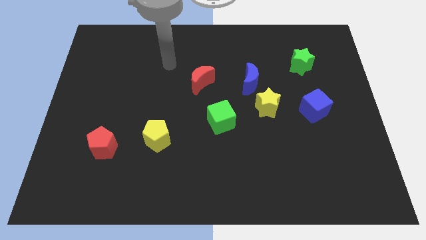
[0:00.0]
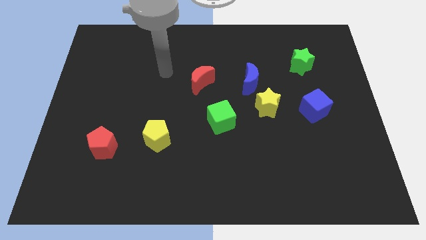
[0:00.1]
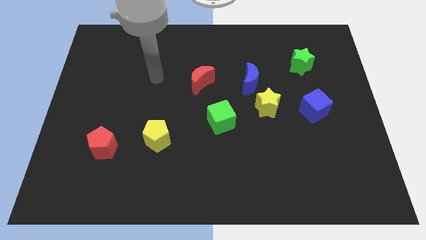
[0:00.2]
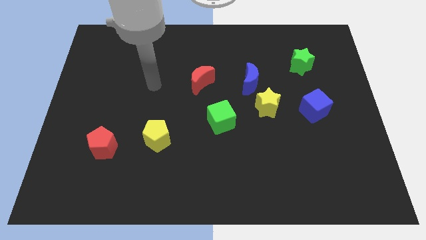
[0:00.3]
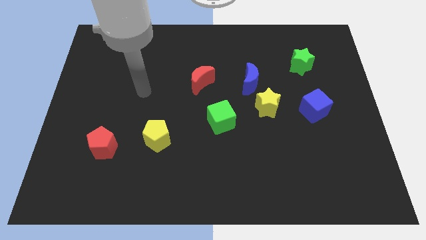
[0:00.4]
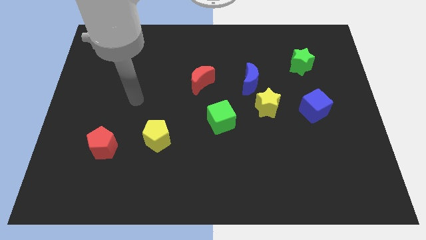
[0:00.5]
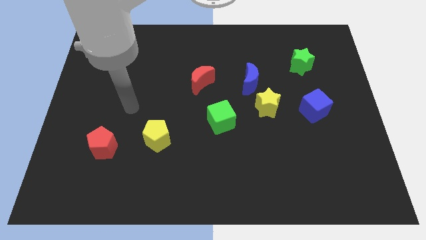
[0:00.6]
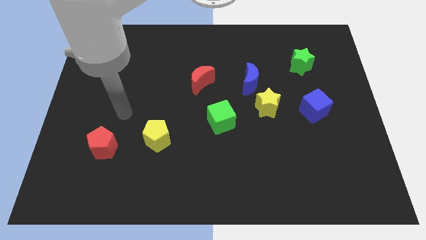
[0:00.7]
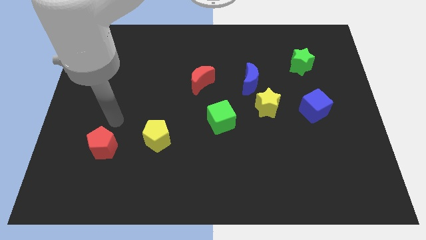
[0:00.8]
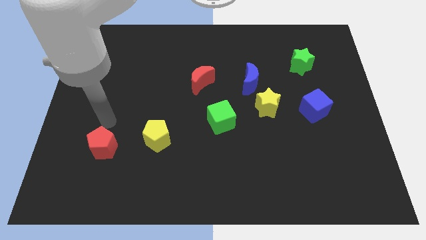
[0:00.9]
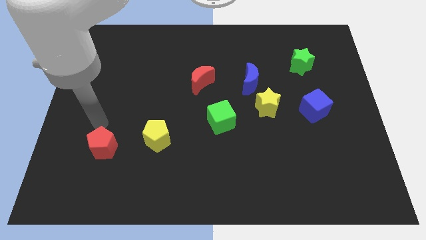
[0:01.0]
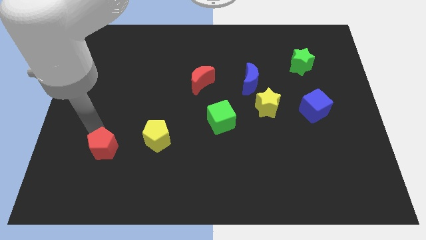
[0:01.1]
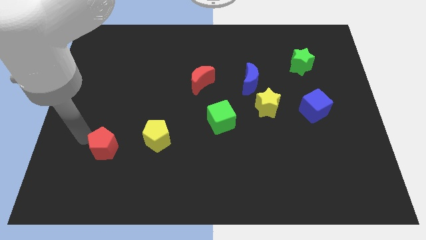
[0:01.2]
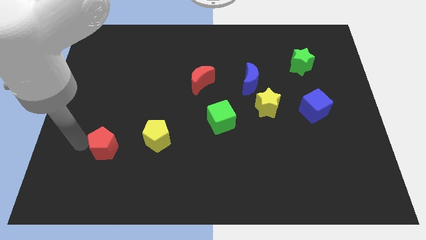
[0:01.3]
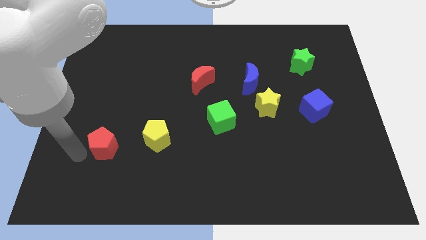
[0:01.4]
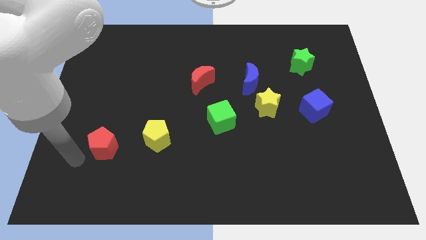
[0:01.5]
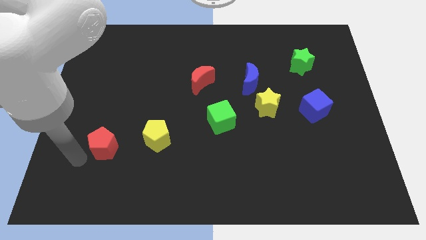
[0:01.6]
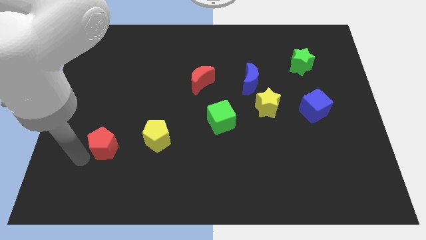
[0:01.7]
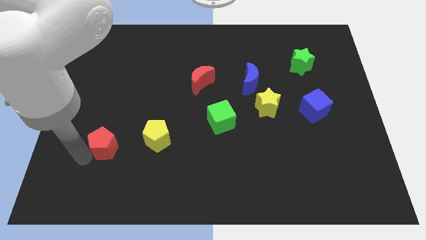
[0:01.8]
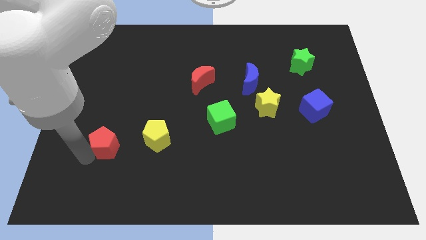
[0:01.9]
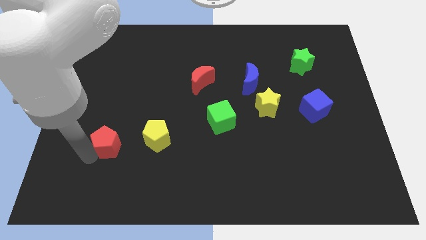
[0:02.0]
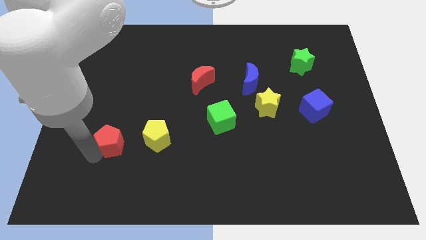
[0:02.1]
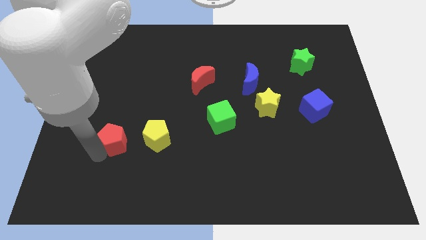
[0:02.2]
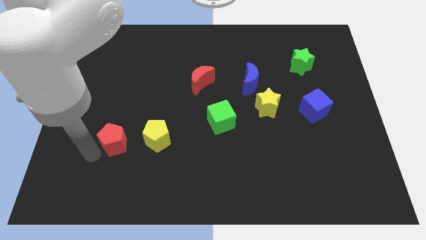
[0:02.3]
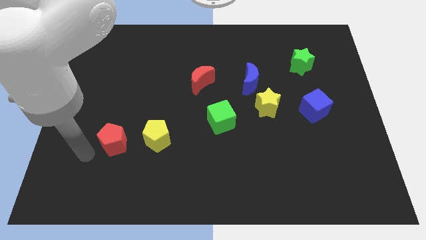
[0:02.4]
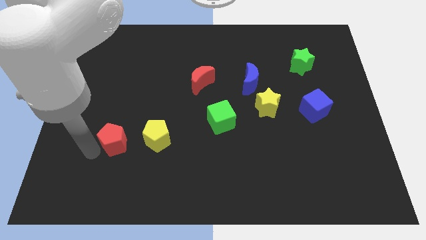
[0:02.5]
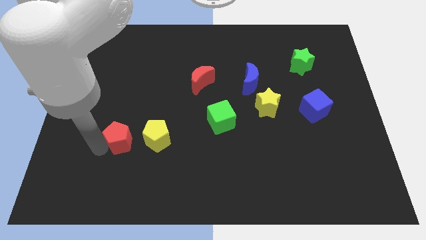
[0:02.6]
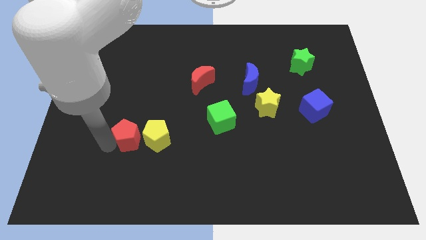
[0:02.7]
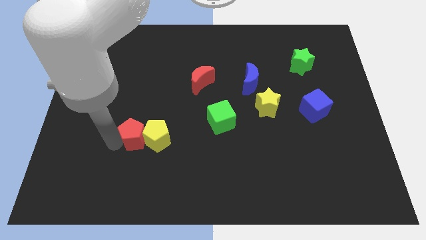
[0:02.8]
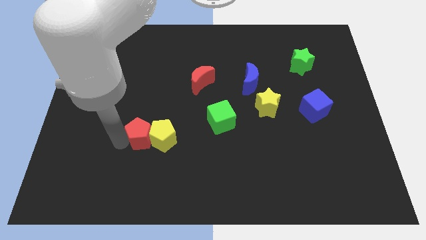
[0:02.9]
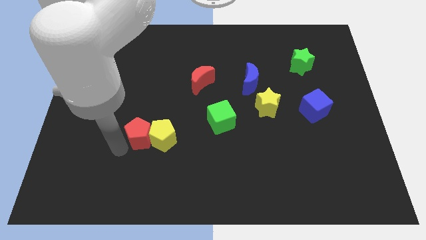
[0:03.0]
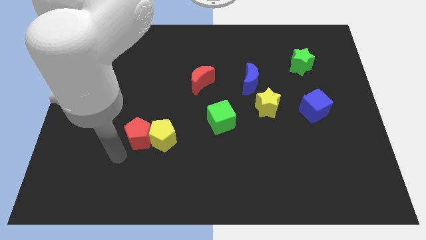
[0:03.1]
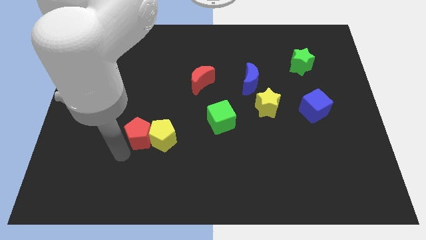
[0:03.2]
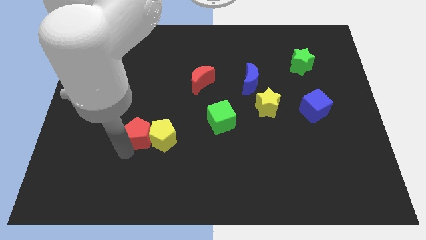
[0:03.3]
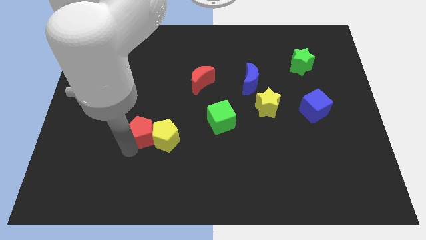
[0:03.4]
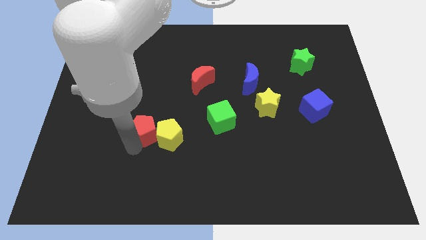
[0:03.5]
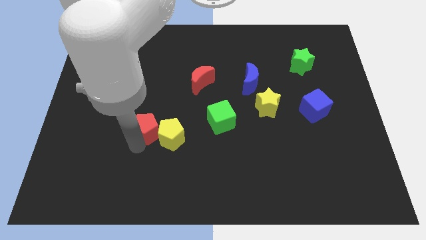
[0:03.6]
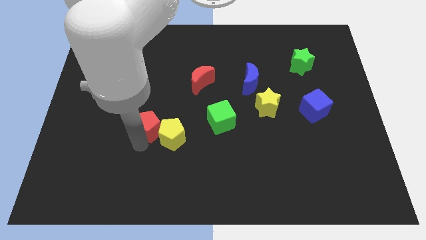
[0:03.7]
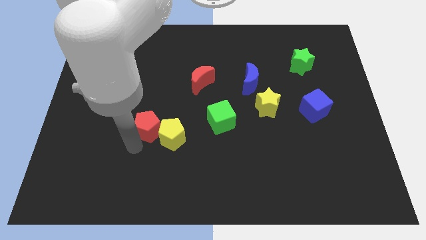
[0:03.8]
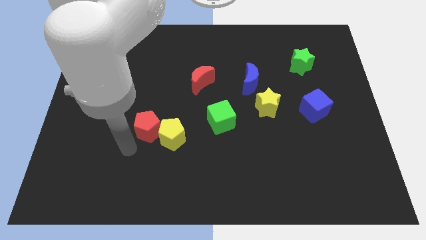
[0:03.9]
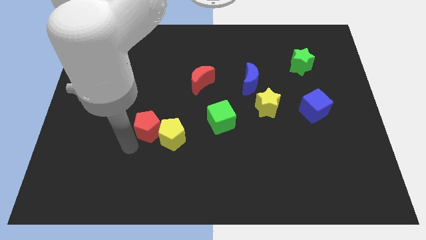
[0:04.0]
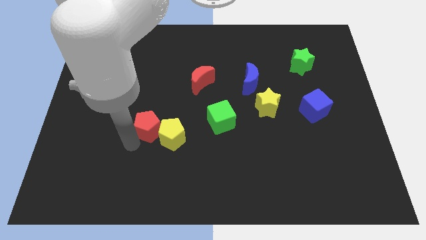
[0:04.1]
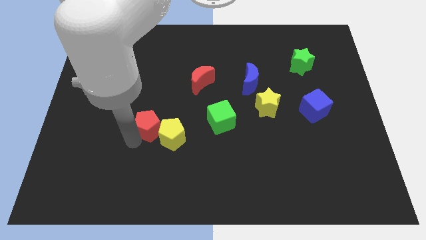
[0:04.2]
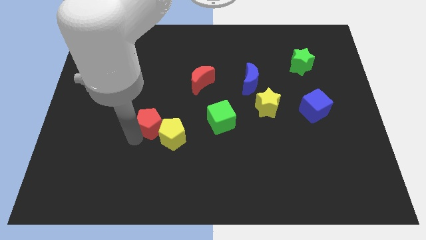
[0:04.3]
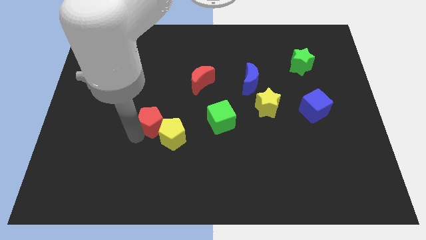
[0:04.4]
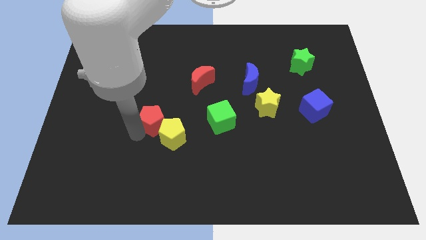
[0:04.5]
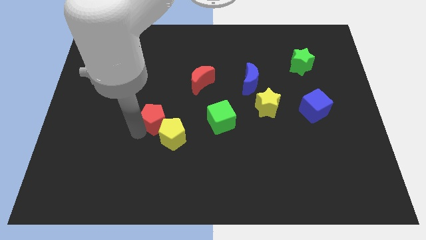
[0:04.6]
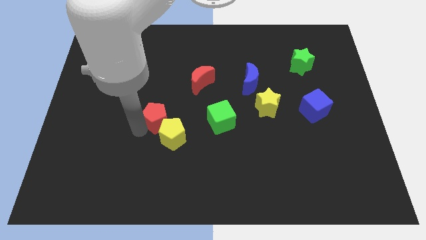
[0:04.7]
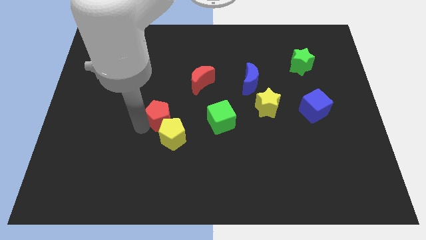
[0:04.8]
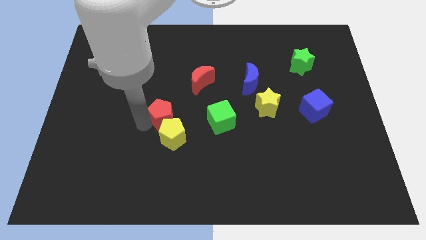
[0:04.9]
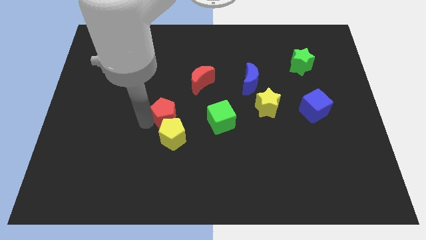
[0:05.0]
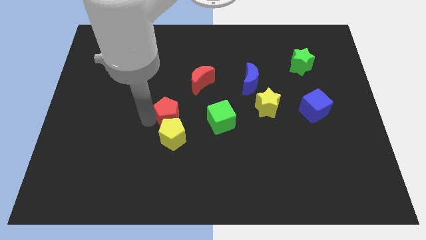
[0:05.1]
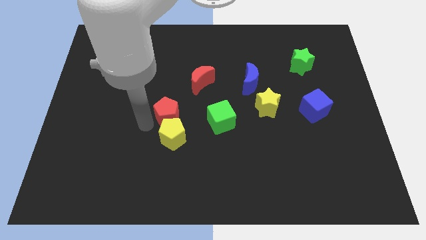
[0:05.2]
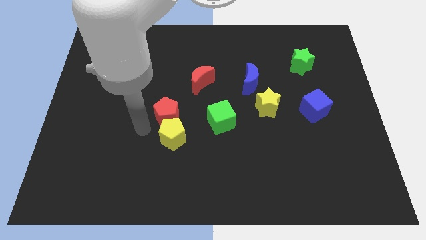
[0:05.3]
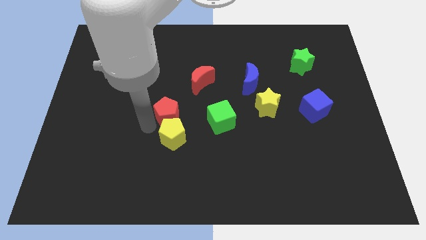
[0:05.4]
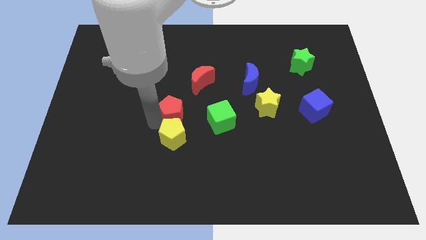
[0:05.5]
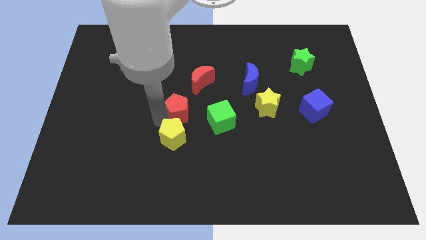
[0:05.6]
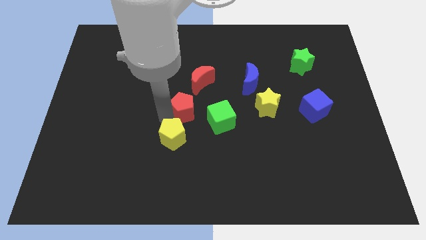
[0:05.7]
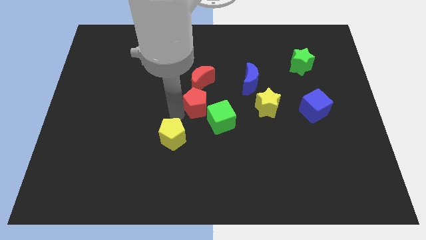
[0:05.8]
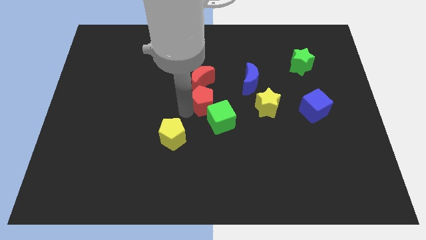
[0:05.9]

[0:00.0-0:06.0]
slide the red pentagon to the top side of the green cube

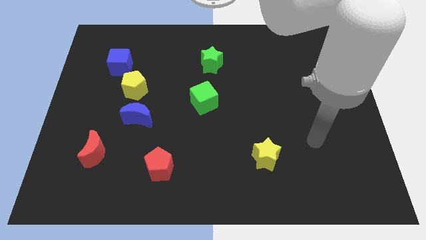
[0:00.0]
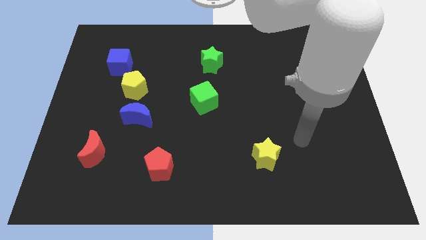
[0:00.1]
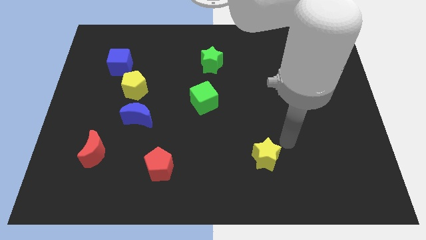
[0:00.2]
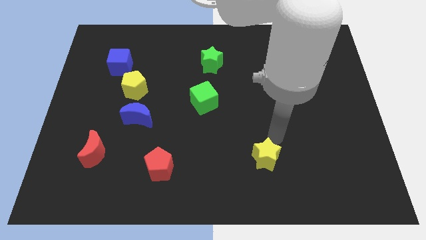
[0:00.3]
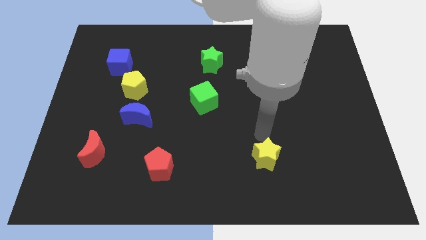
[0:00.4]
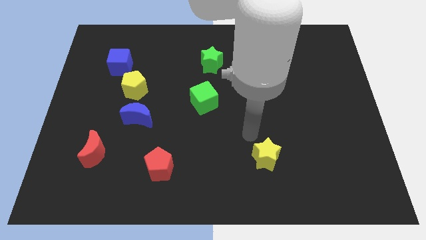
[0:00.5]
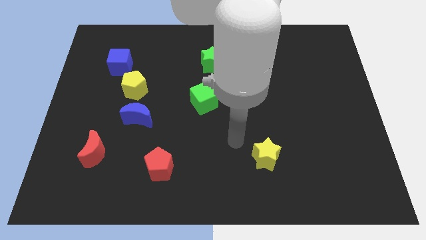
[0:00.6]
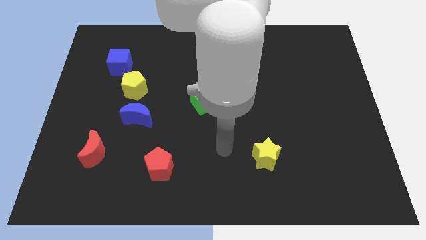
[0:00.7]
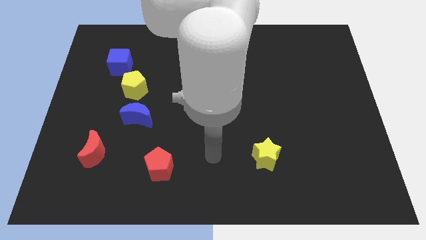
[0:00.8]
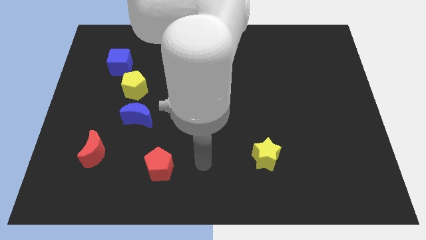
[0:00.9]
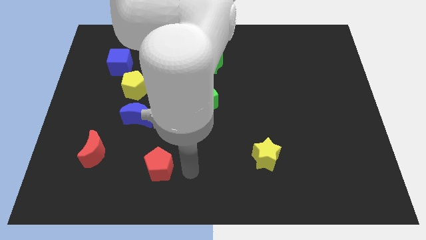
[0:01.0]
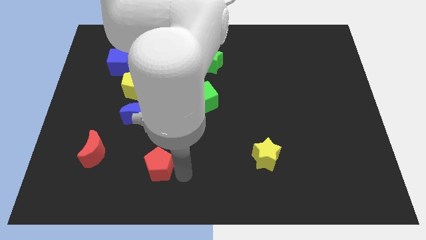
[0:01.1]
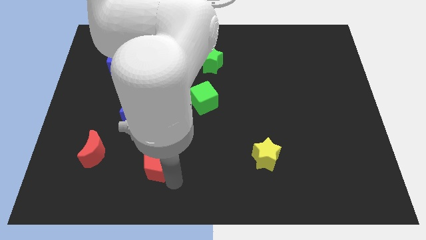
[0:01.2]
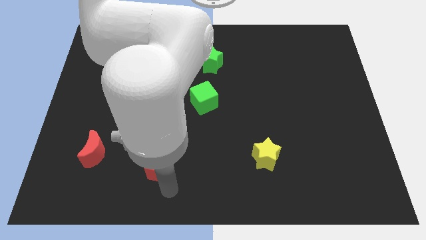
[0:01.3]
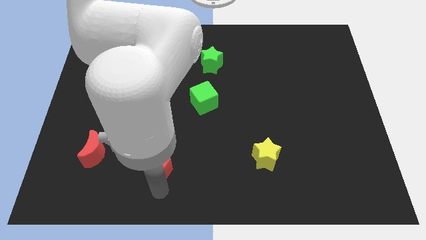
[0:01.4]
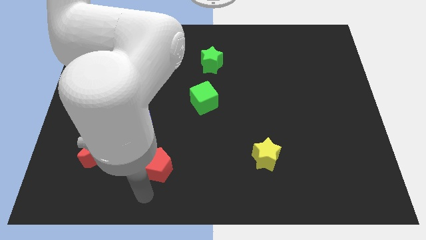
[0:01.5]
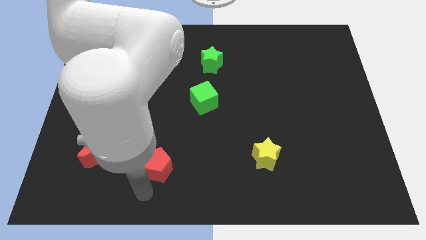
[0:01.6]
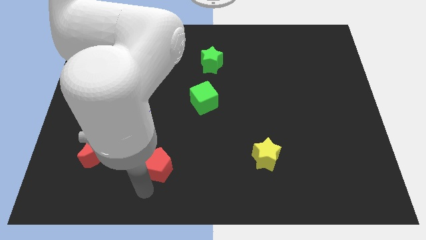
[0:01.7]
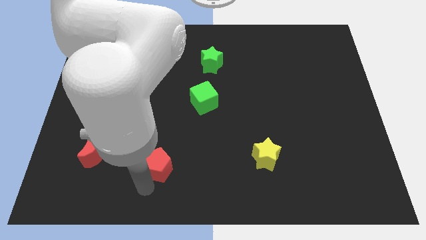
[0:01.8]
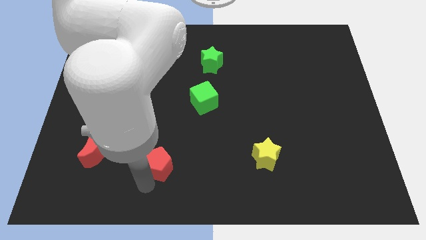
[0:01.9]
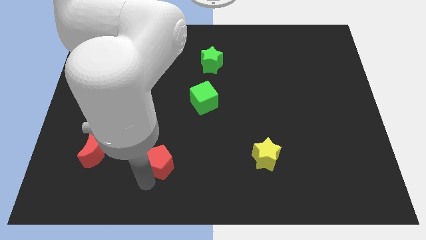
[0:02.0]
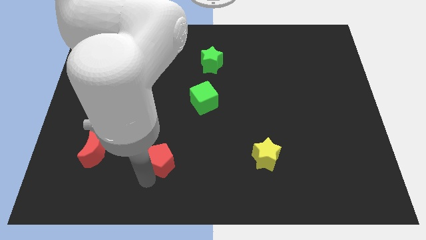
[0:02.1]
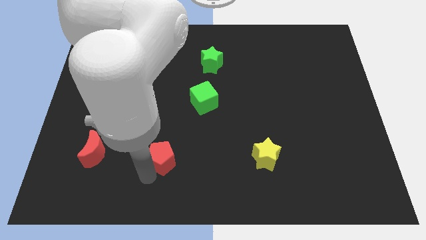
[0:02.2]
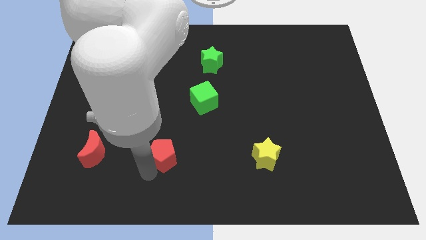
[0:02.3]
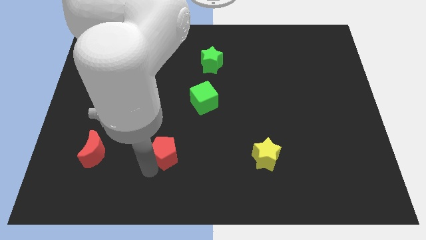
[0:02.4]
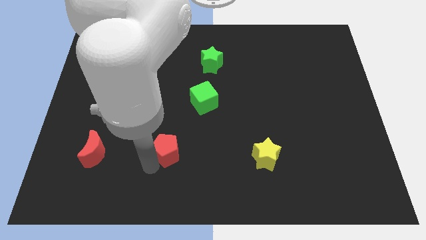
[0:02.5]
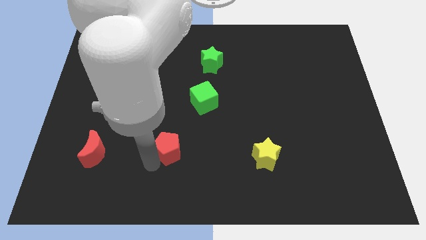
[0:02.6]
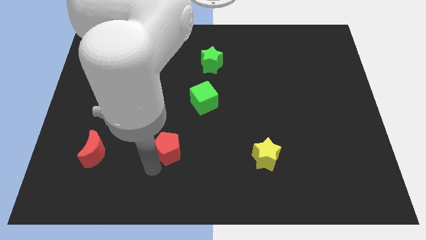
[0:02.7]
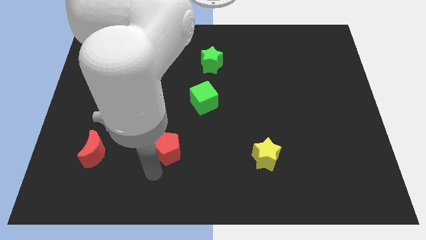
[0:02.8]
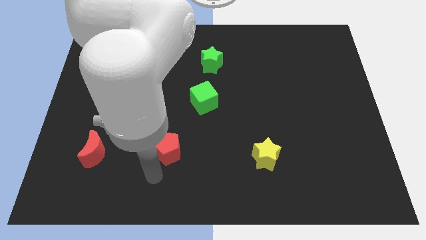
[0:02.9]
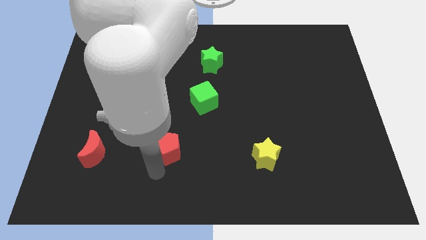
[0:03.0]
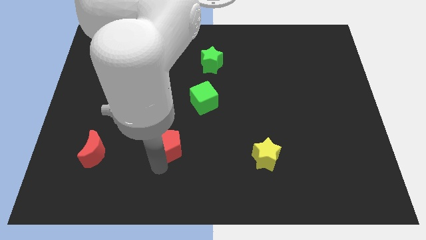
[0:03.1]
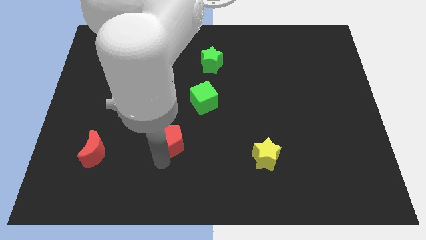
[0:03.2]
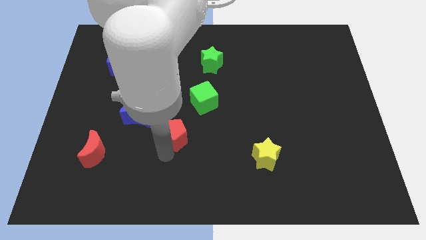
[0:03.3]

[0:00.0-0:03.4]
slide the red pentagon to the bottom left side of the green cube
